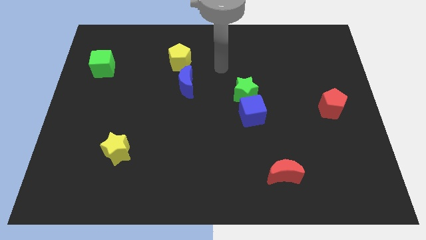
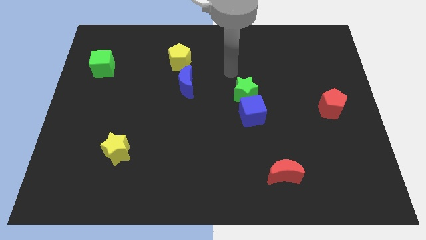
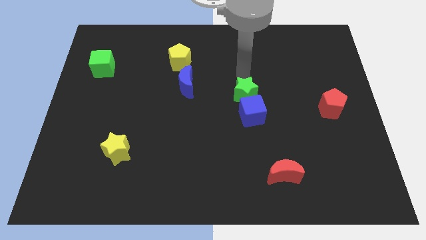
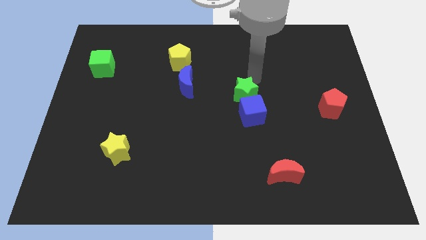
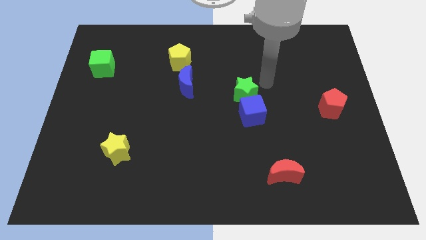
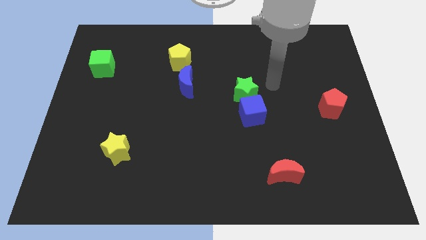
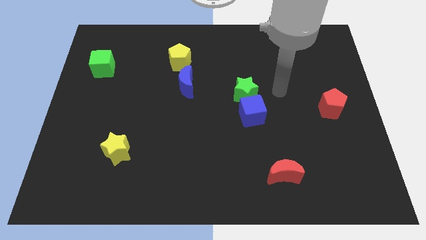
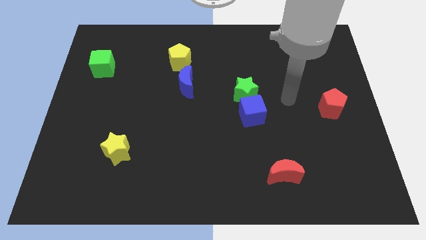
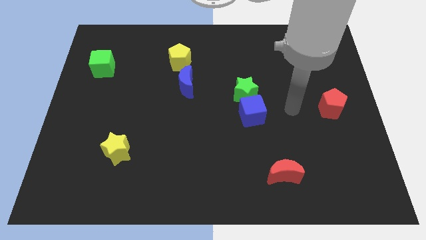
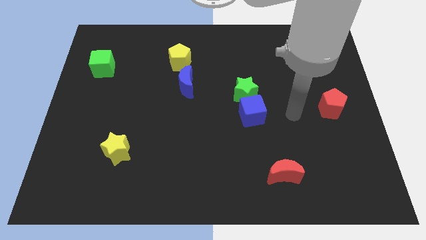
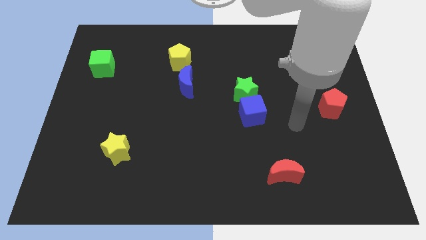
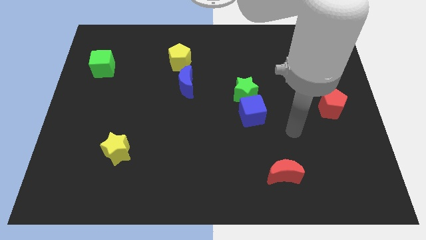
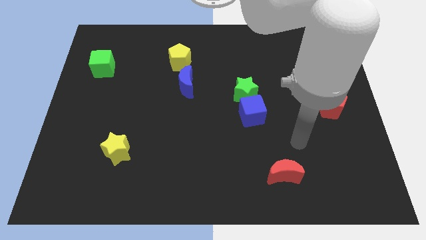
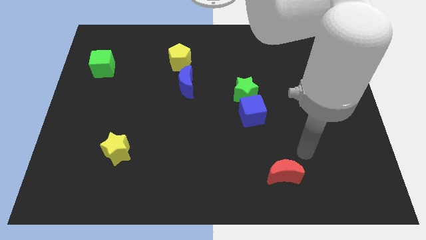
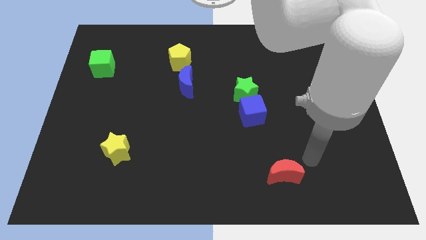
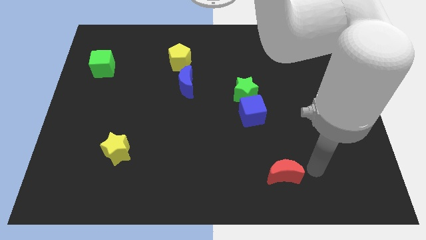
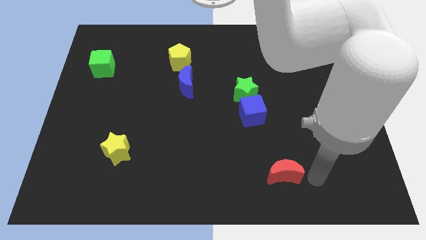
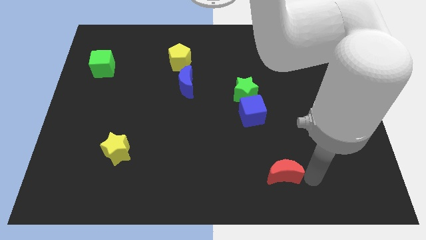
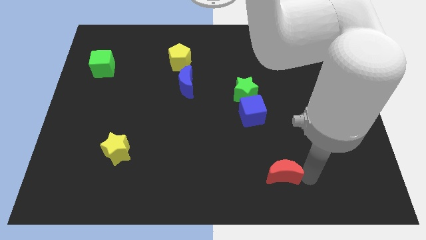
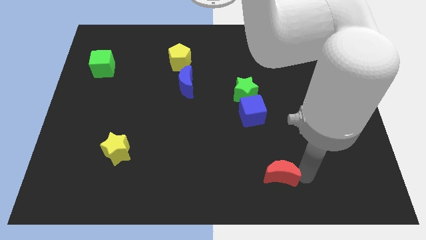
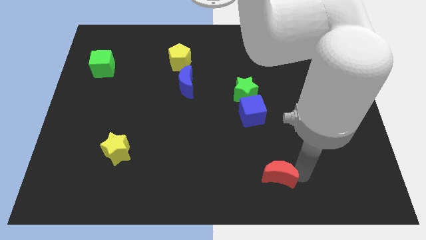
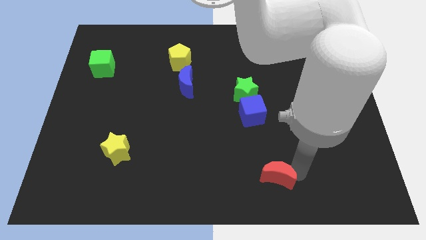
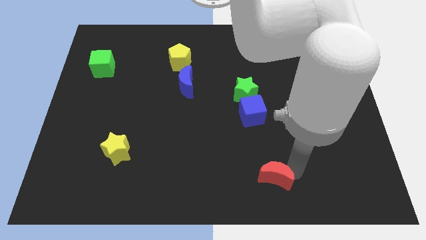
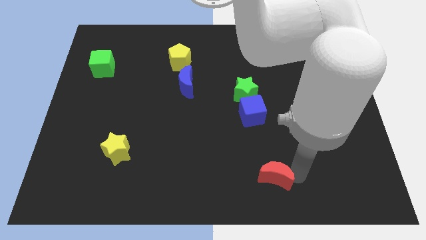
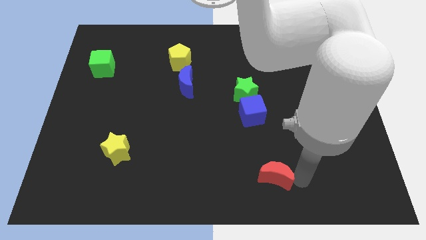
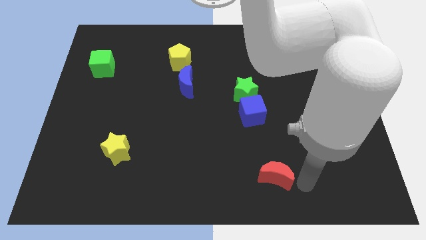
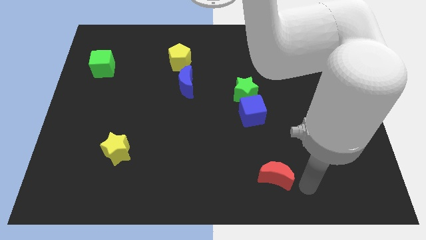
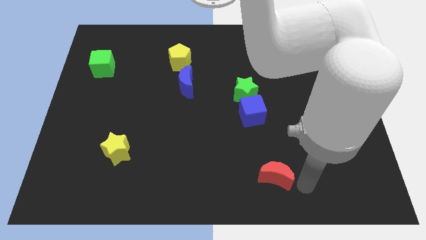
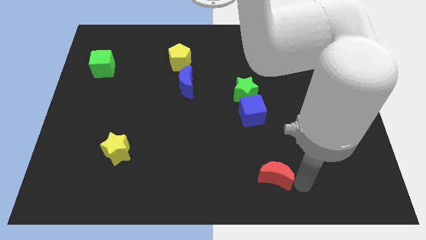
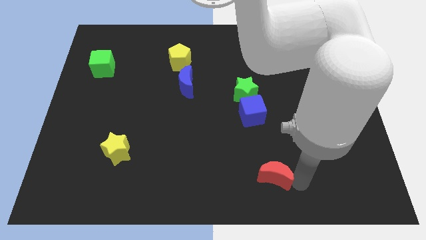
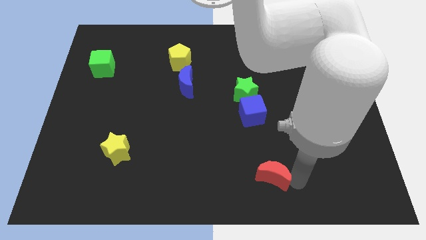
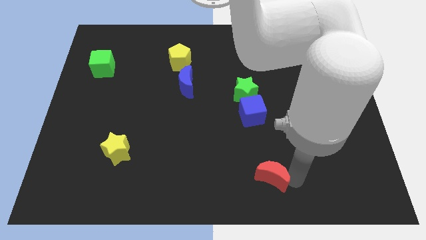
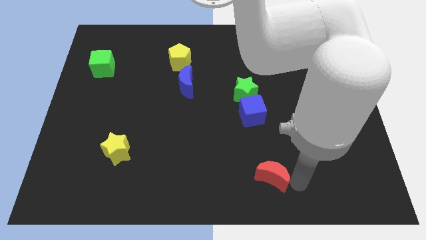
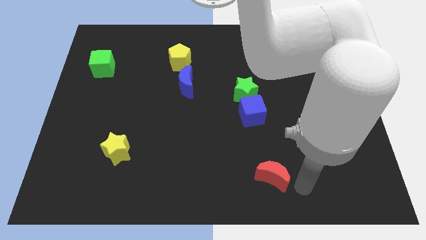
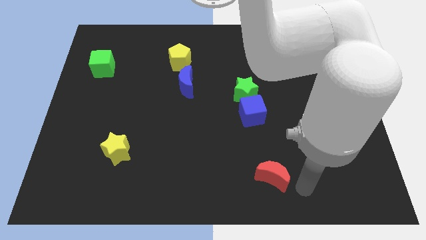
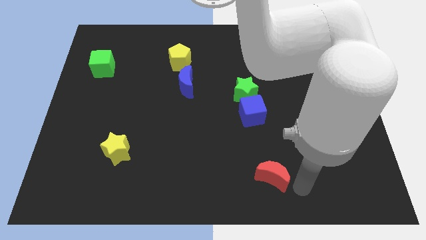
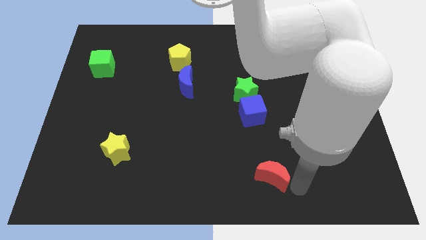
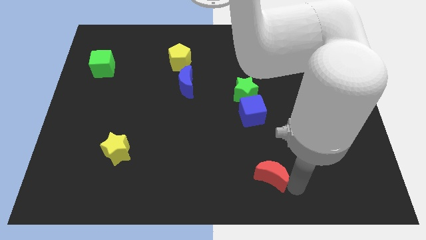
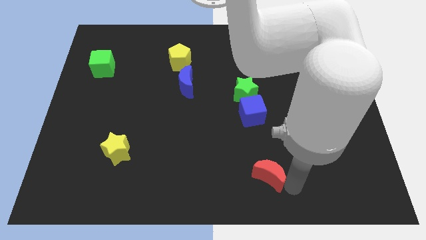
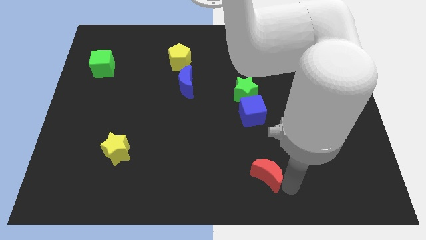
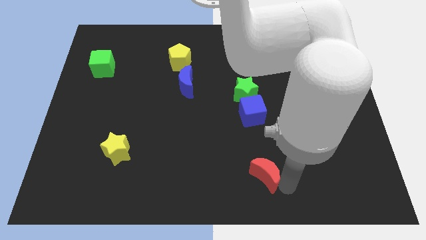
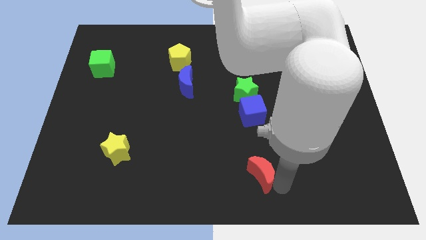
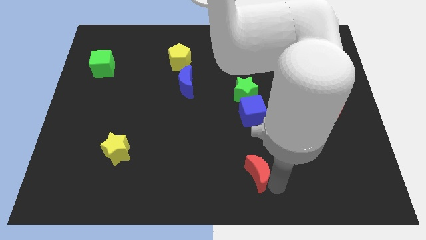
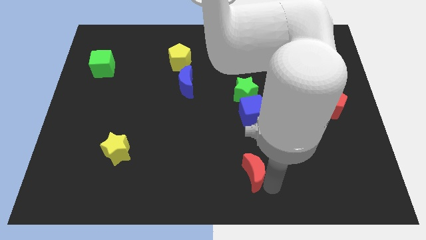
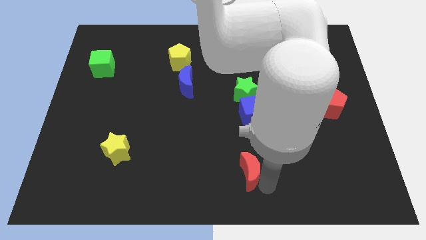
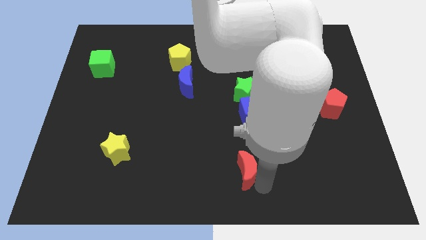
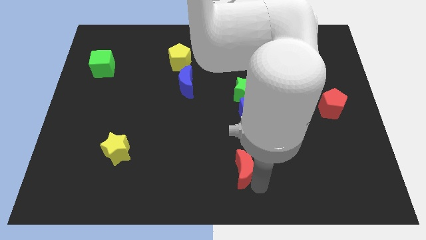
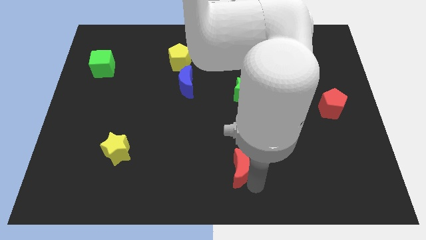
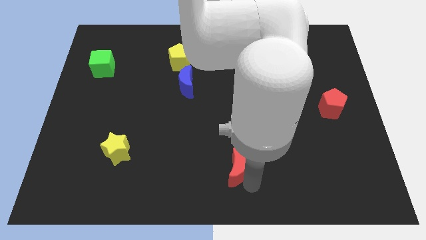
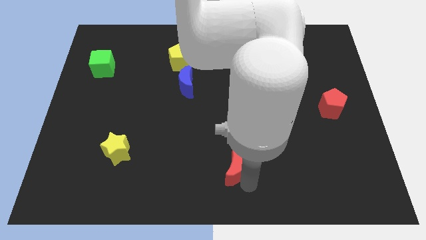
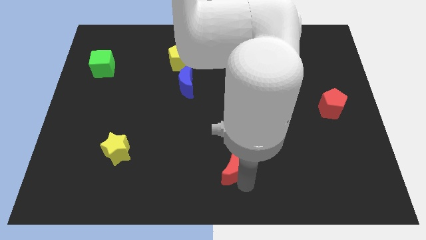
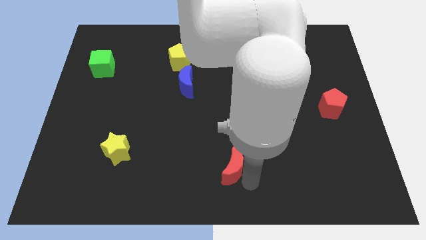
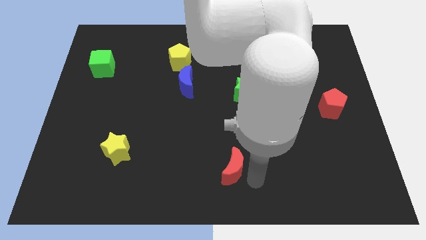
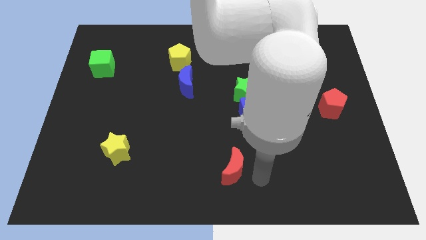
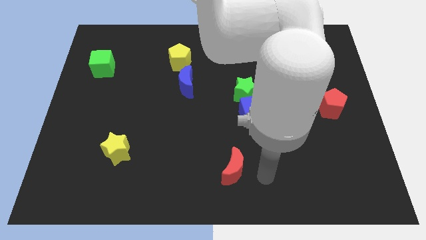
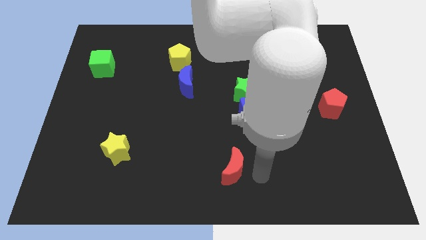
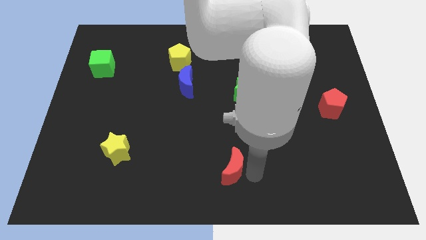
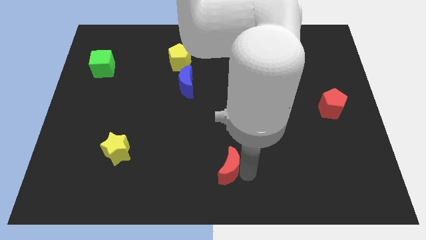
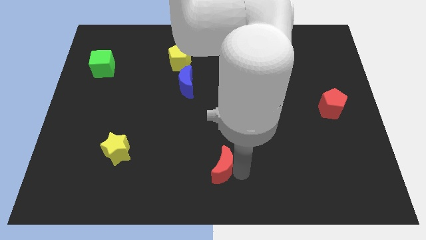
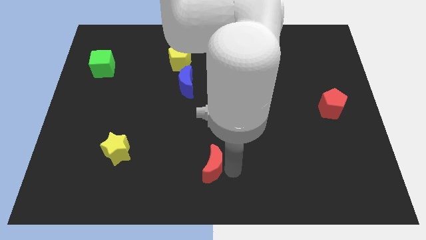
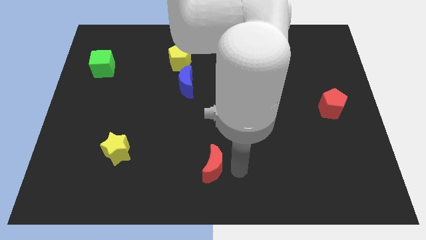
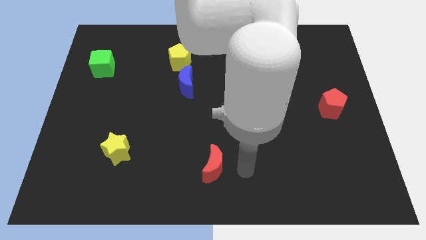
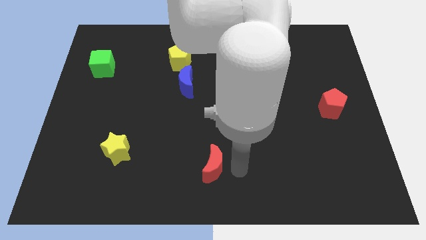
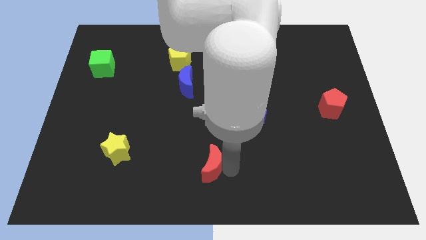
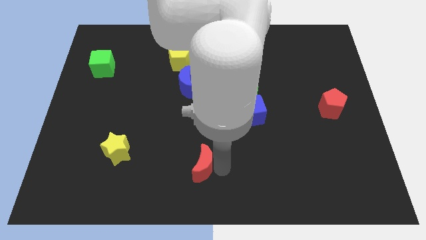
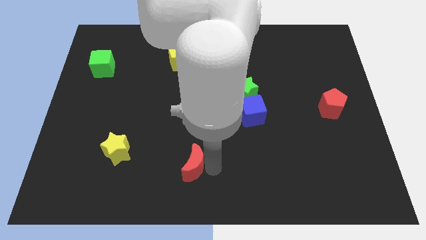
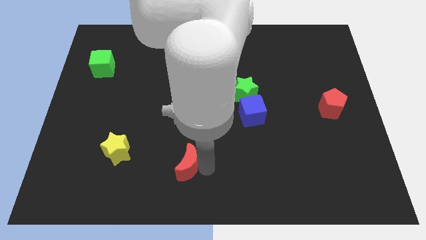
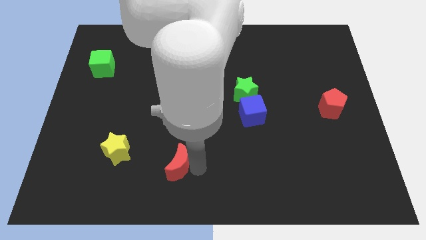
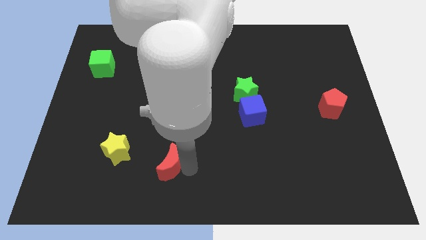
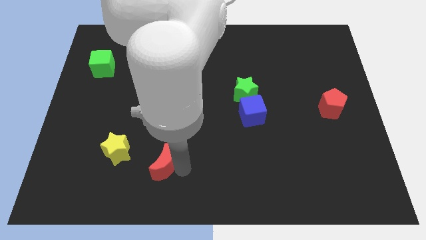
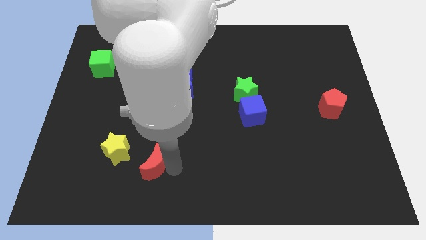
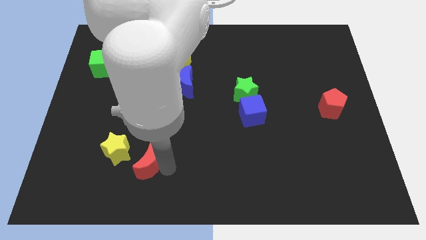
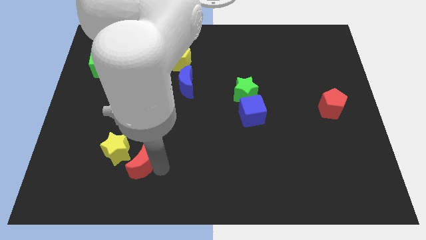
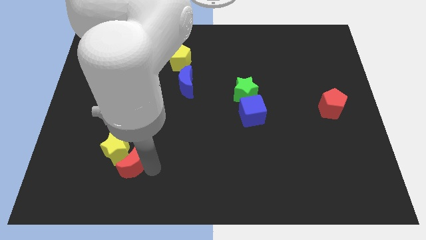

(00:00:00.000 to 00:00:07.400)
push the red moon to the yellow star
